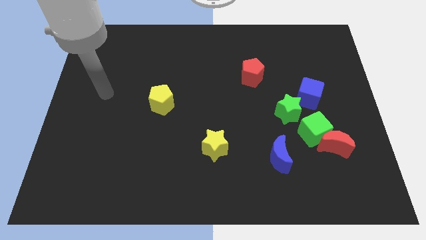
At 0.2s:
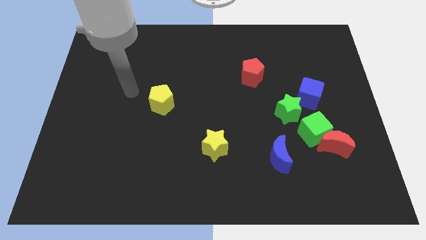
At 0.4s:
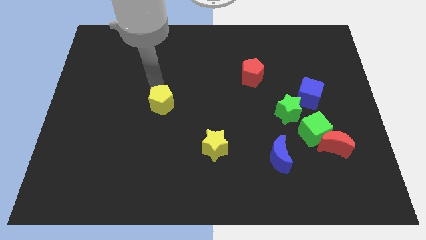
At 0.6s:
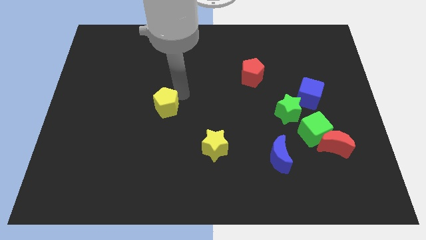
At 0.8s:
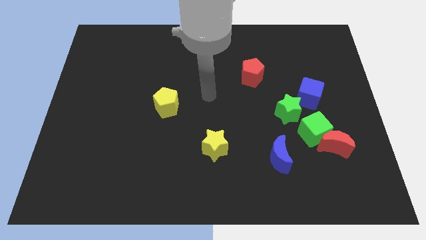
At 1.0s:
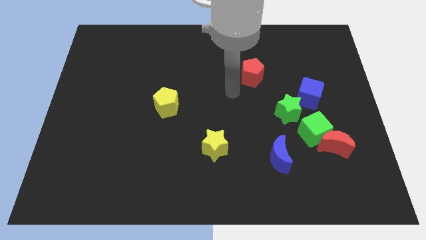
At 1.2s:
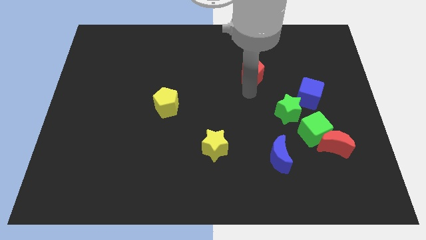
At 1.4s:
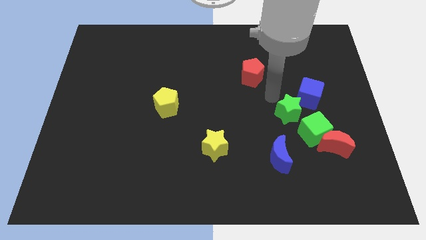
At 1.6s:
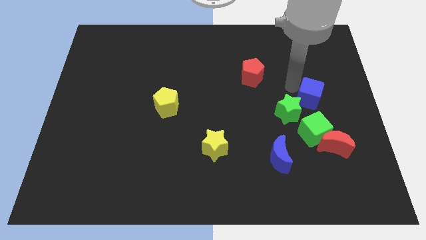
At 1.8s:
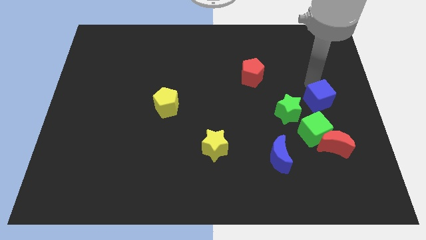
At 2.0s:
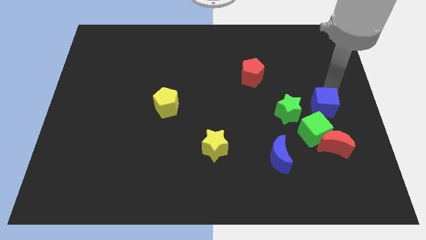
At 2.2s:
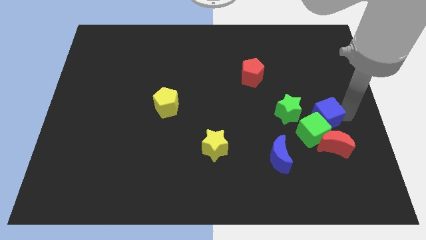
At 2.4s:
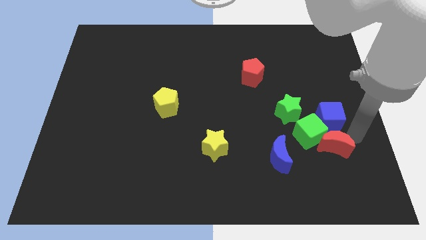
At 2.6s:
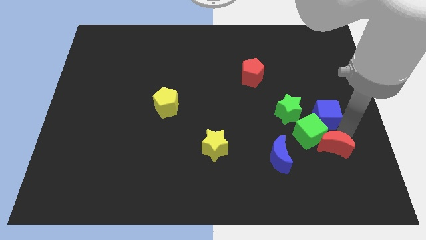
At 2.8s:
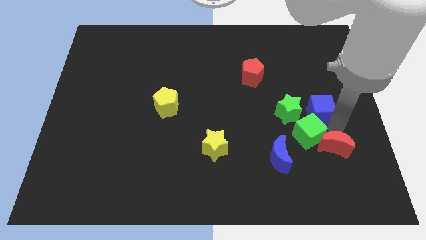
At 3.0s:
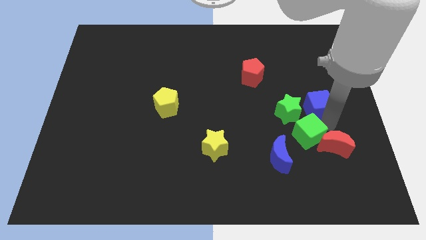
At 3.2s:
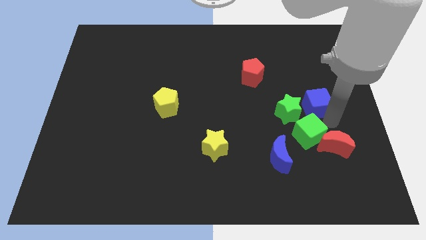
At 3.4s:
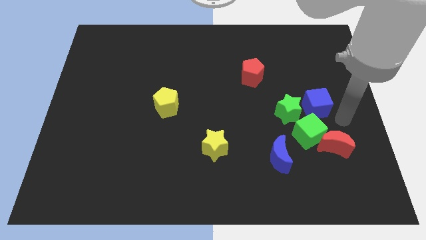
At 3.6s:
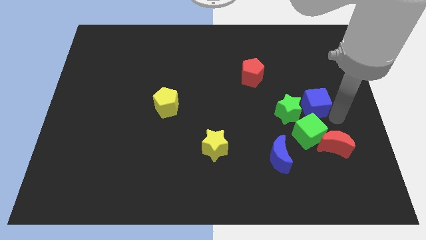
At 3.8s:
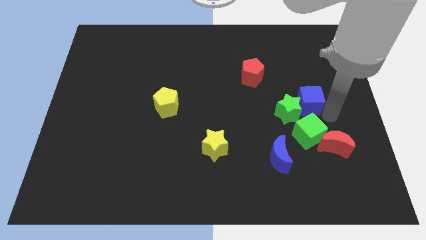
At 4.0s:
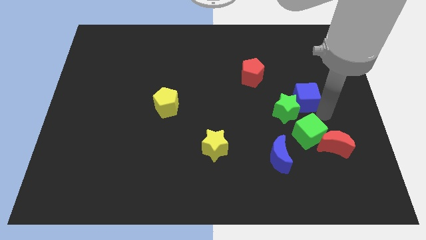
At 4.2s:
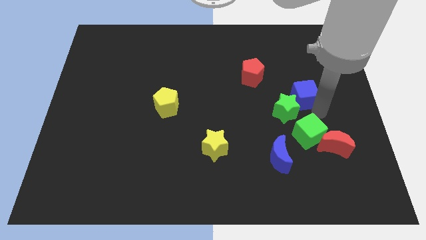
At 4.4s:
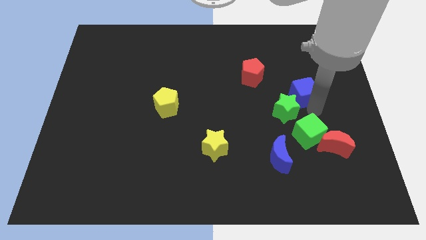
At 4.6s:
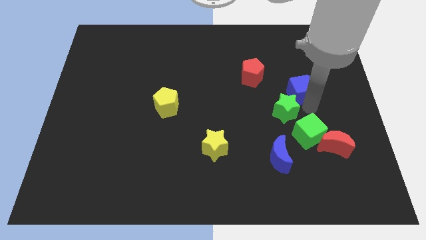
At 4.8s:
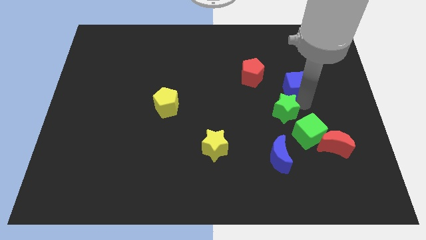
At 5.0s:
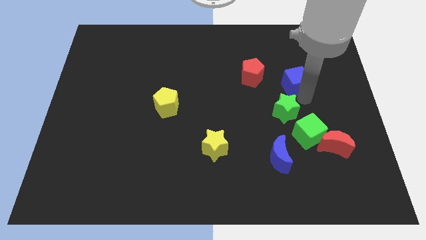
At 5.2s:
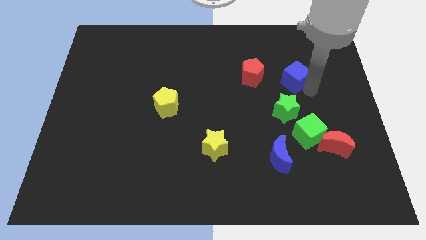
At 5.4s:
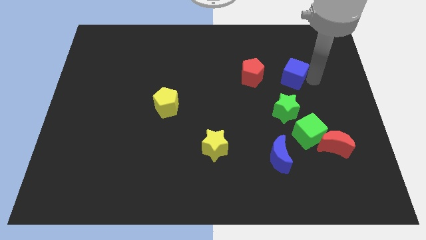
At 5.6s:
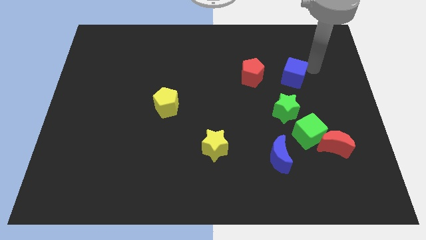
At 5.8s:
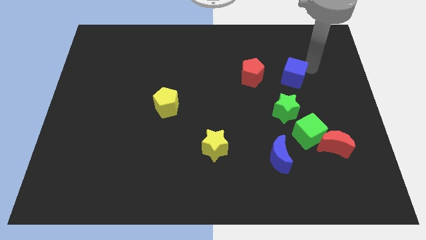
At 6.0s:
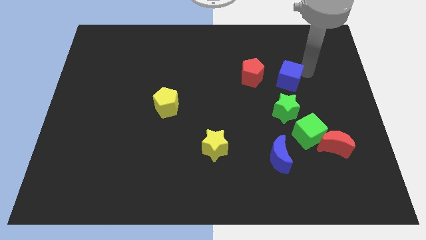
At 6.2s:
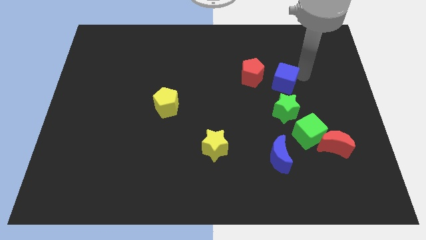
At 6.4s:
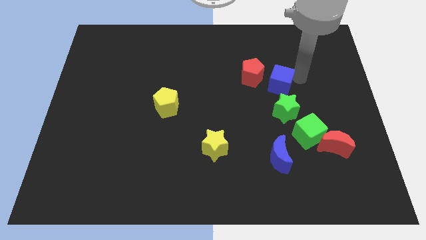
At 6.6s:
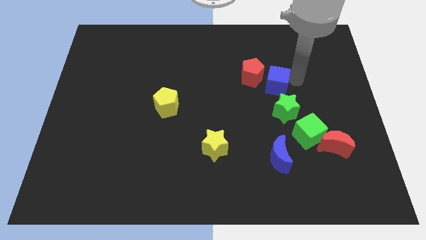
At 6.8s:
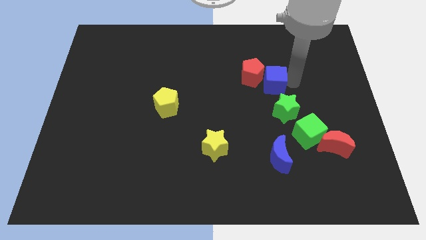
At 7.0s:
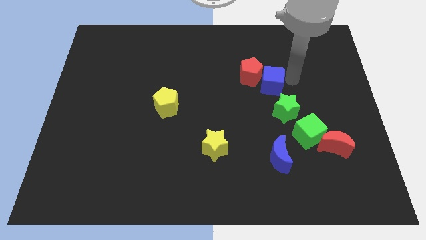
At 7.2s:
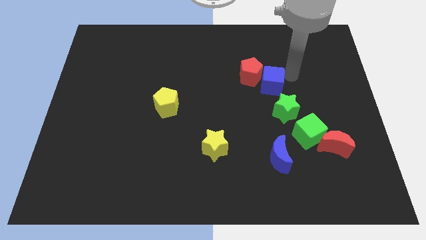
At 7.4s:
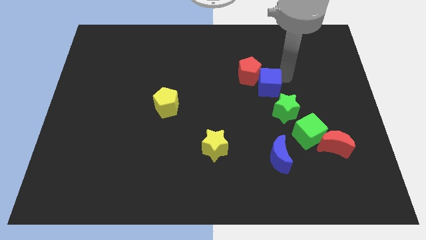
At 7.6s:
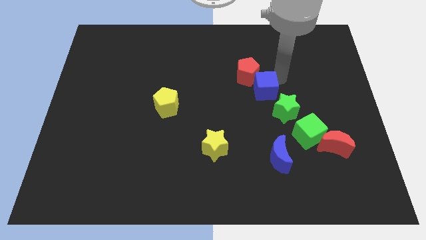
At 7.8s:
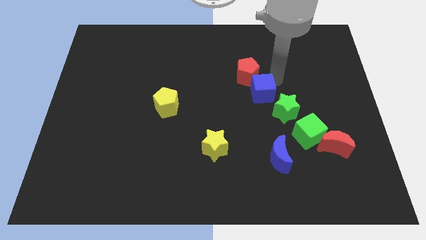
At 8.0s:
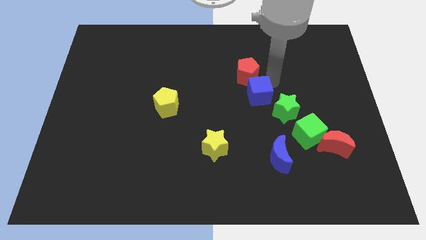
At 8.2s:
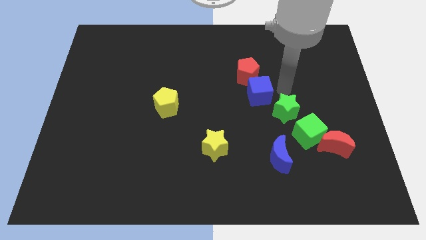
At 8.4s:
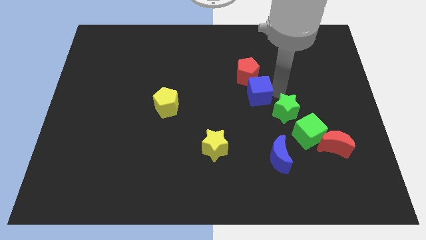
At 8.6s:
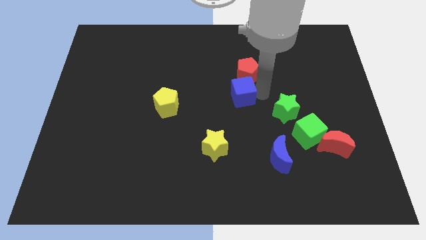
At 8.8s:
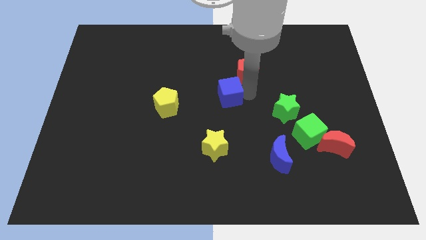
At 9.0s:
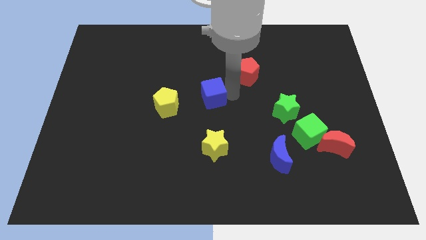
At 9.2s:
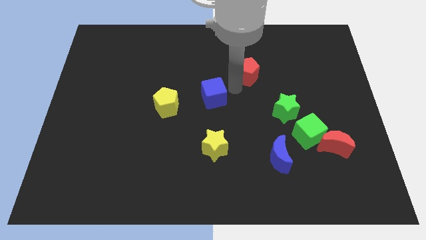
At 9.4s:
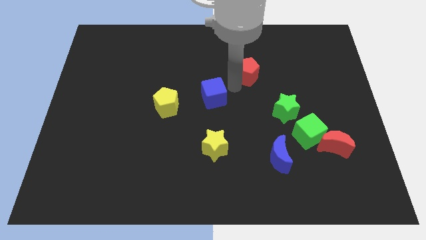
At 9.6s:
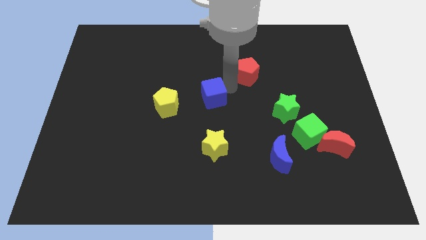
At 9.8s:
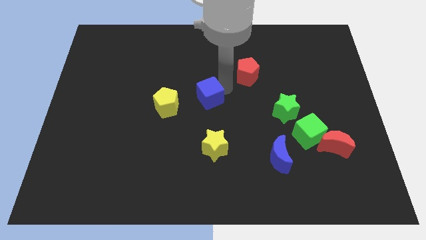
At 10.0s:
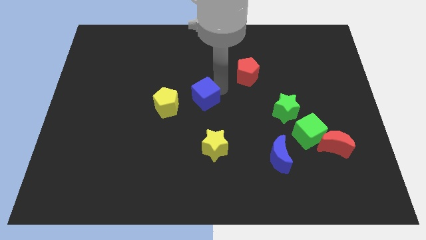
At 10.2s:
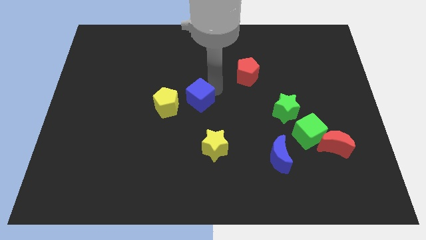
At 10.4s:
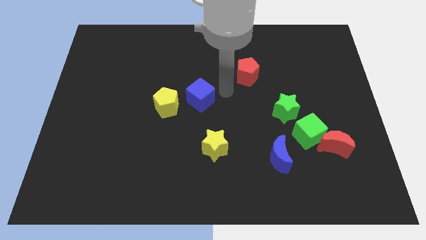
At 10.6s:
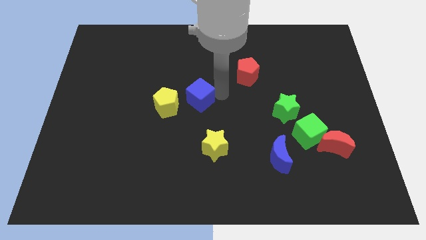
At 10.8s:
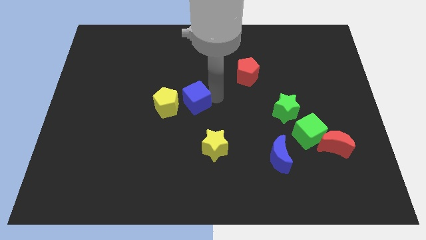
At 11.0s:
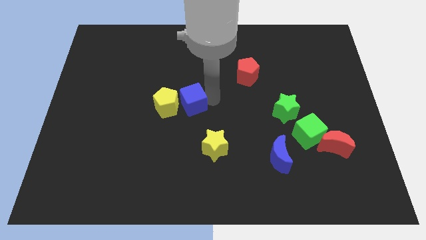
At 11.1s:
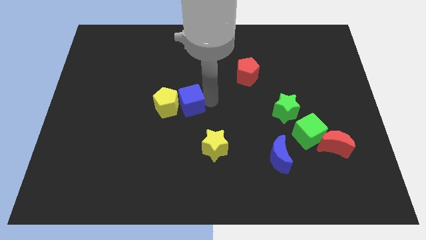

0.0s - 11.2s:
put the blue cube next to the yellow pentagon

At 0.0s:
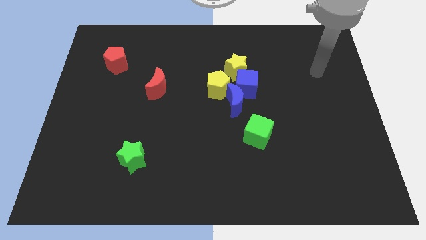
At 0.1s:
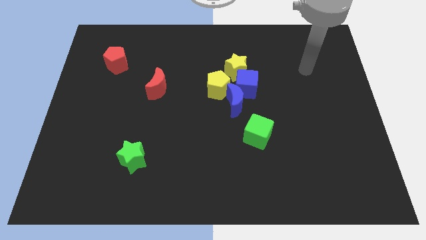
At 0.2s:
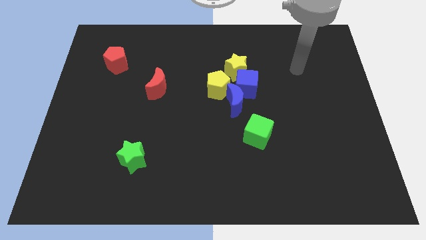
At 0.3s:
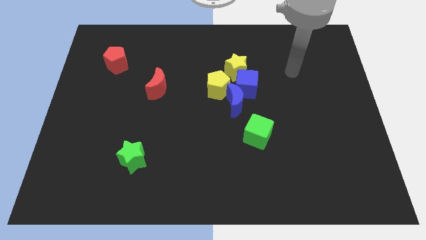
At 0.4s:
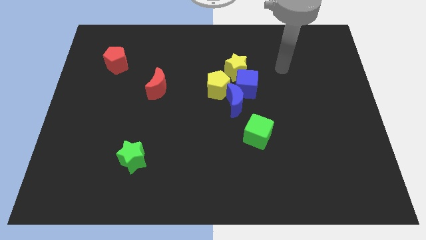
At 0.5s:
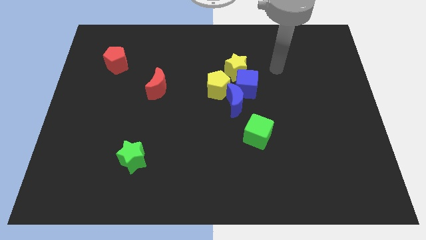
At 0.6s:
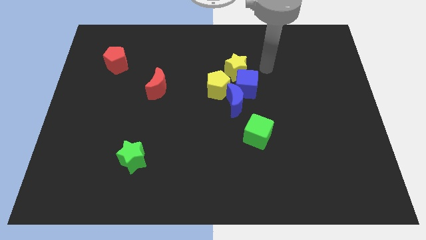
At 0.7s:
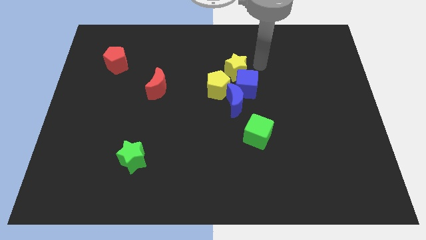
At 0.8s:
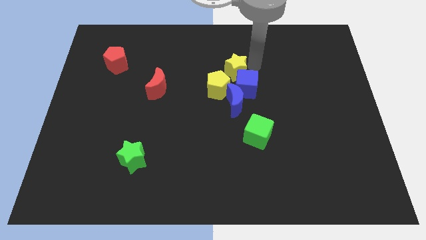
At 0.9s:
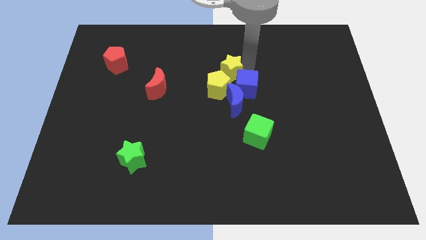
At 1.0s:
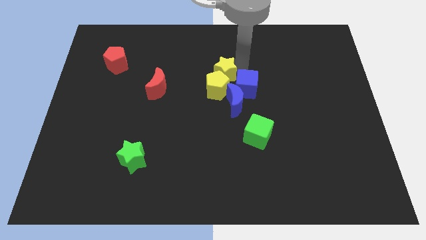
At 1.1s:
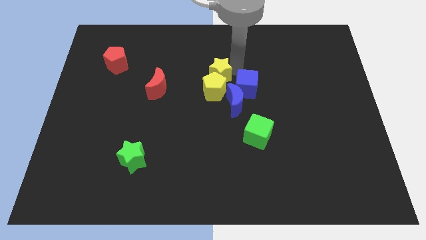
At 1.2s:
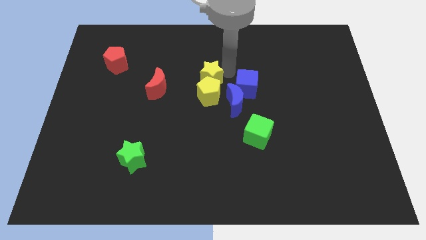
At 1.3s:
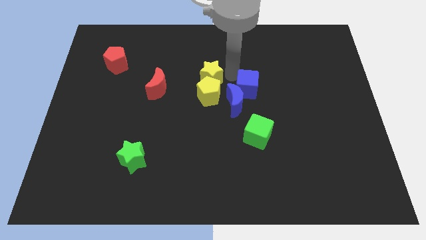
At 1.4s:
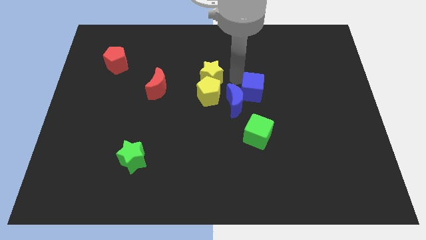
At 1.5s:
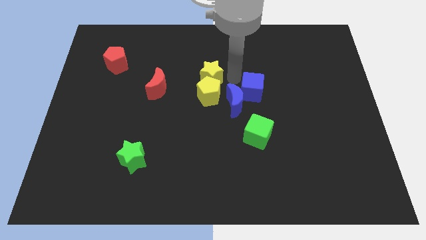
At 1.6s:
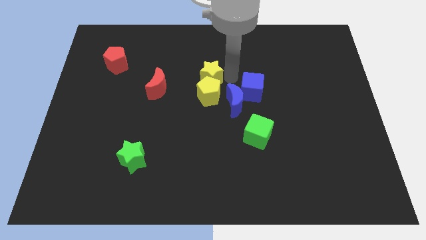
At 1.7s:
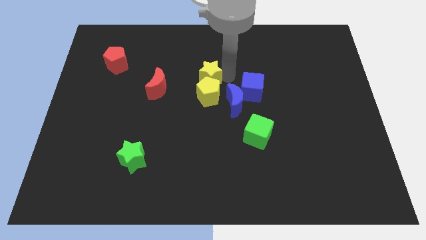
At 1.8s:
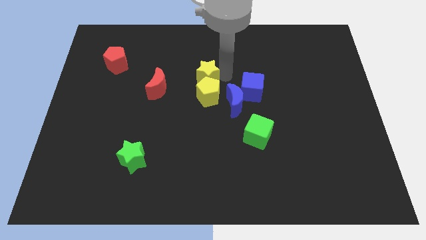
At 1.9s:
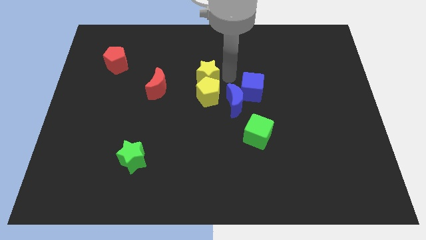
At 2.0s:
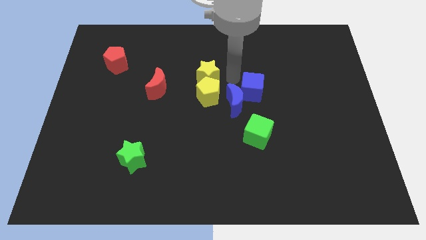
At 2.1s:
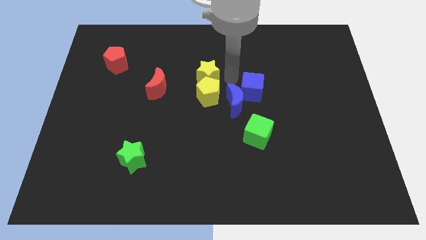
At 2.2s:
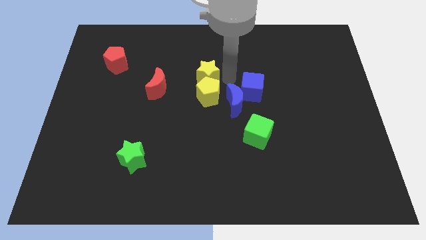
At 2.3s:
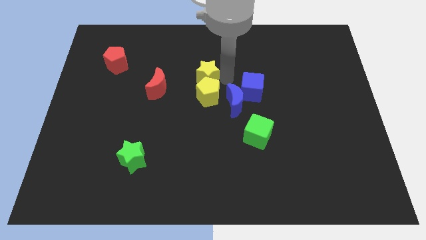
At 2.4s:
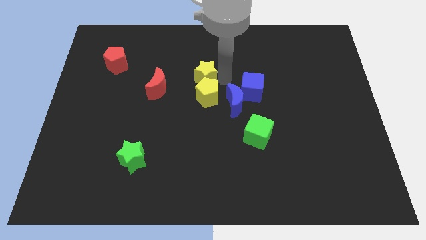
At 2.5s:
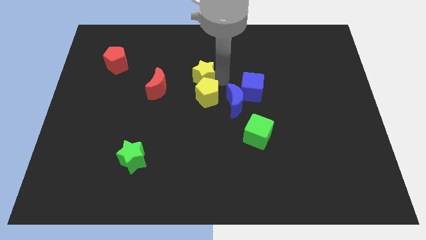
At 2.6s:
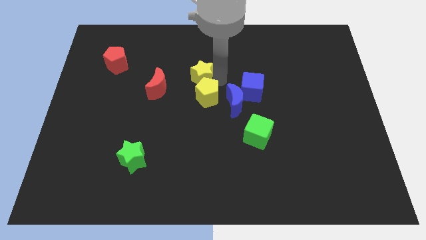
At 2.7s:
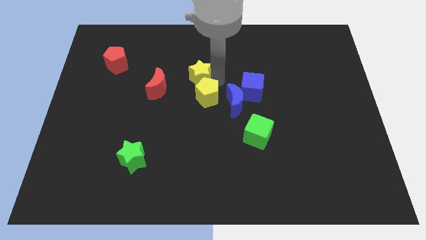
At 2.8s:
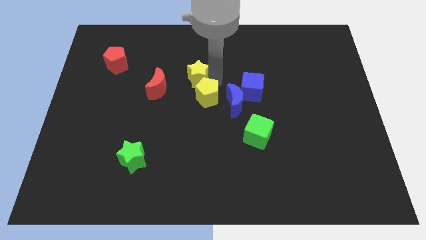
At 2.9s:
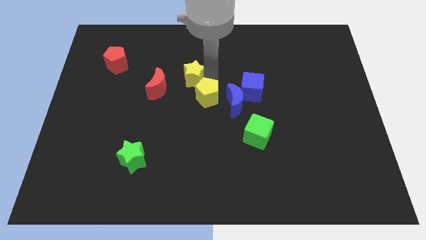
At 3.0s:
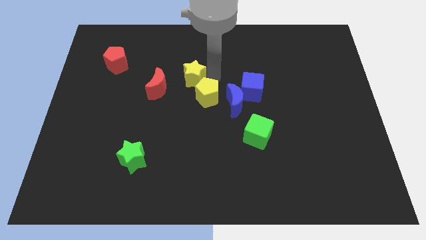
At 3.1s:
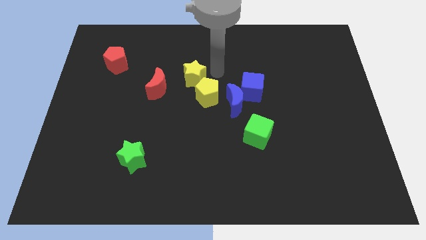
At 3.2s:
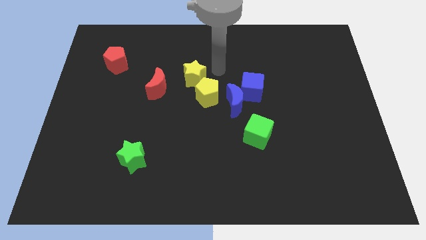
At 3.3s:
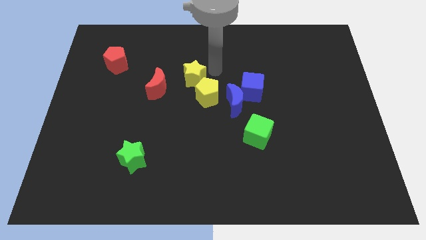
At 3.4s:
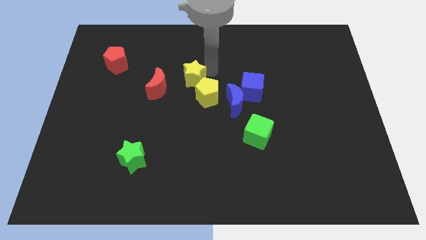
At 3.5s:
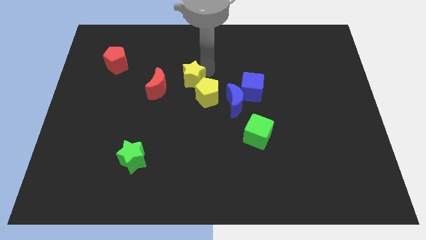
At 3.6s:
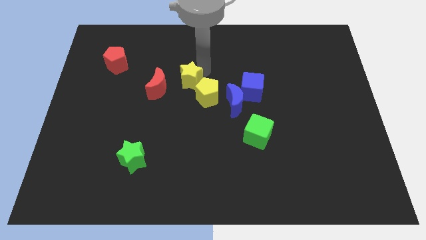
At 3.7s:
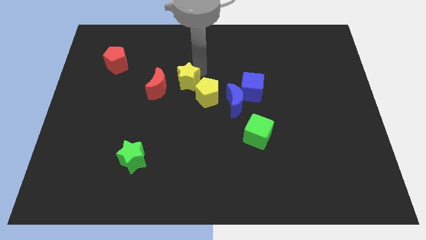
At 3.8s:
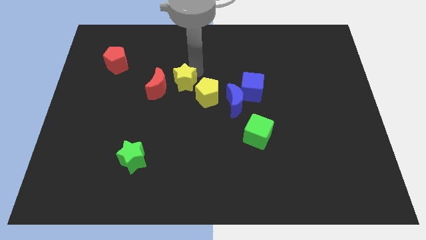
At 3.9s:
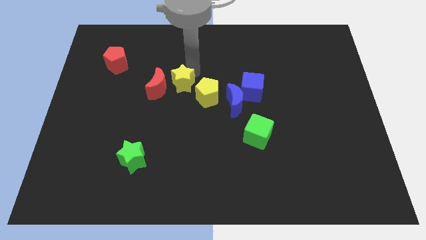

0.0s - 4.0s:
put the yellow star next to the red moon
